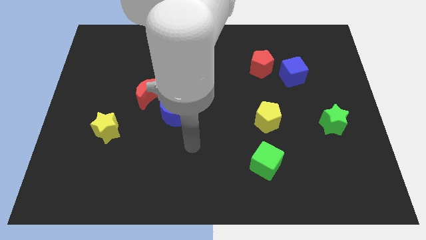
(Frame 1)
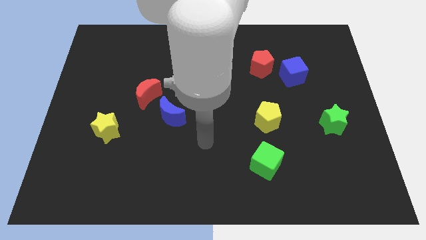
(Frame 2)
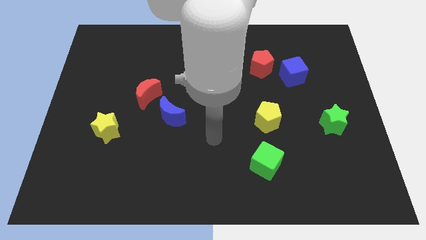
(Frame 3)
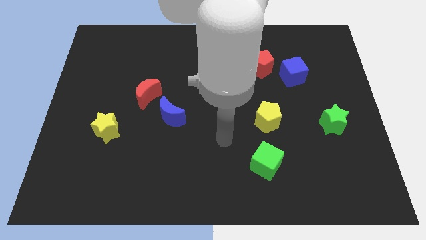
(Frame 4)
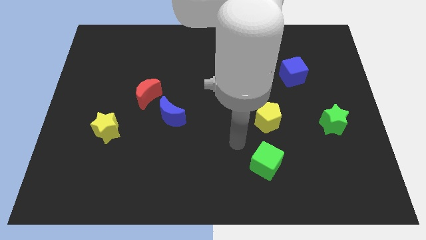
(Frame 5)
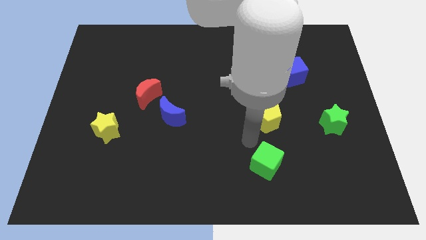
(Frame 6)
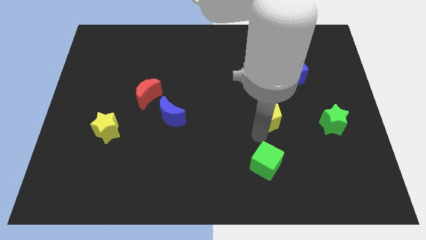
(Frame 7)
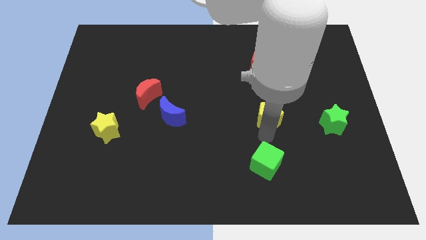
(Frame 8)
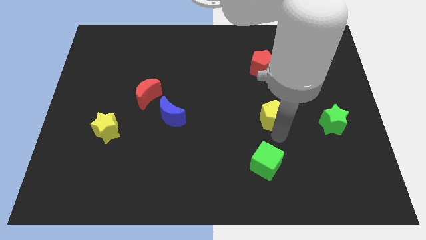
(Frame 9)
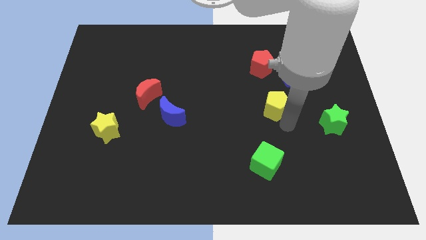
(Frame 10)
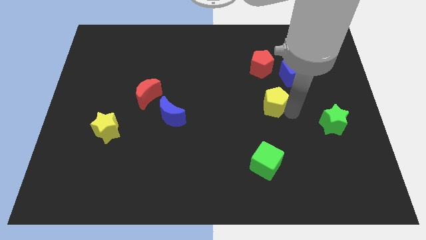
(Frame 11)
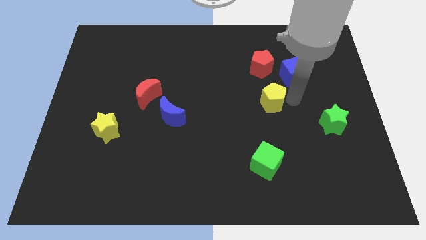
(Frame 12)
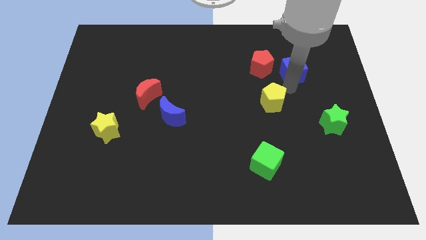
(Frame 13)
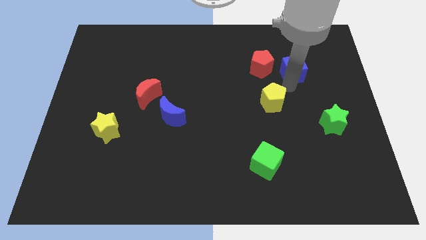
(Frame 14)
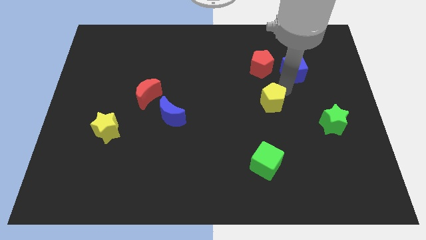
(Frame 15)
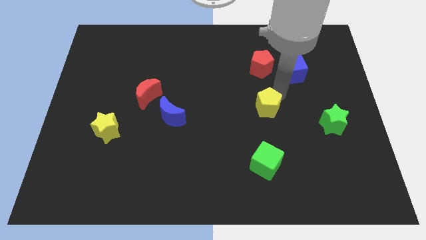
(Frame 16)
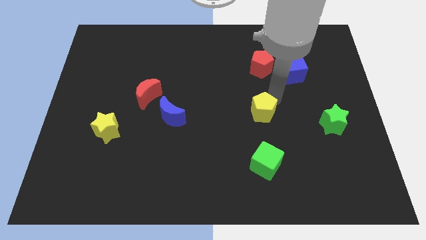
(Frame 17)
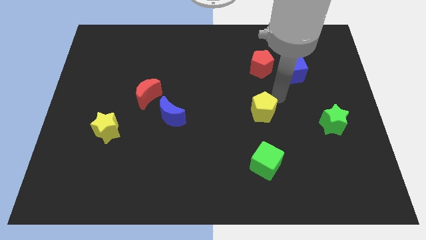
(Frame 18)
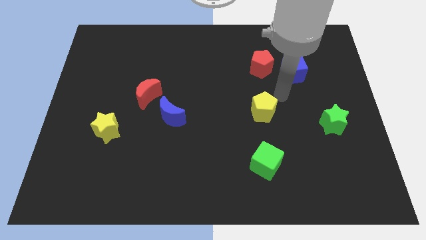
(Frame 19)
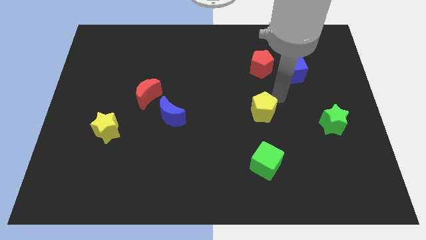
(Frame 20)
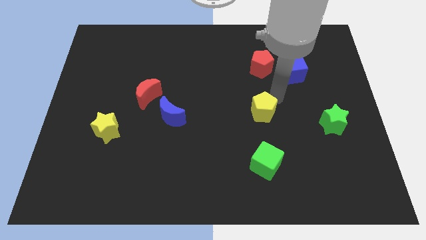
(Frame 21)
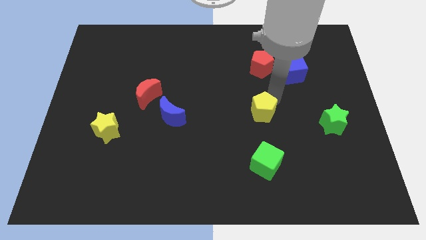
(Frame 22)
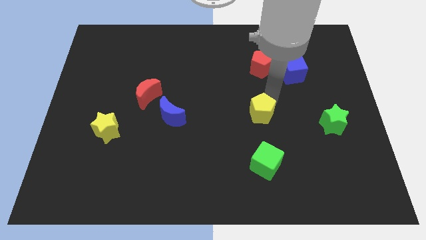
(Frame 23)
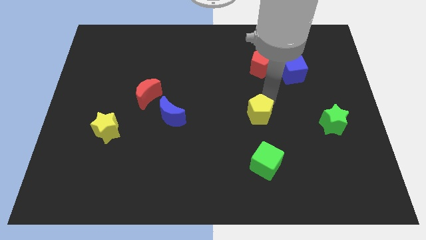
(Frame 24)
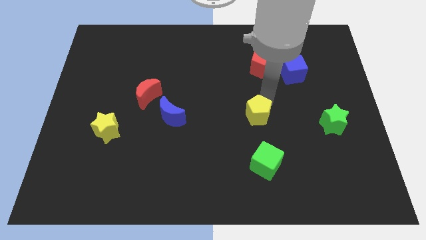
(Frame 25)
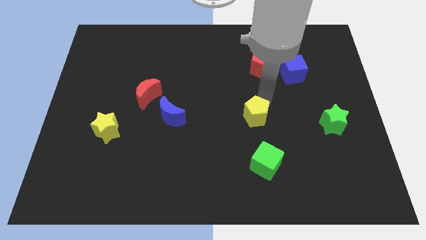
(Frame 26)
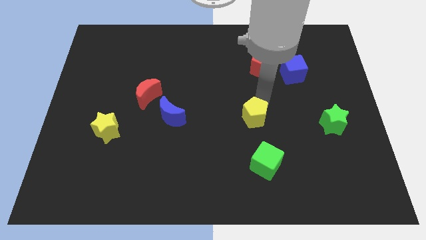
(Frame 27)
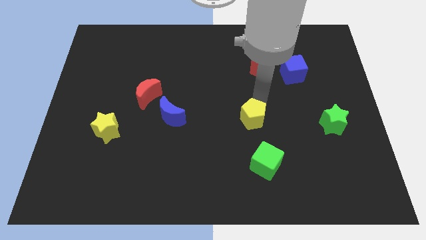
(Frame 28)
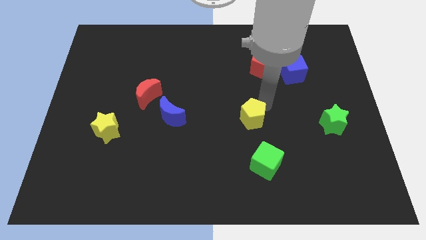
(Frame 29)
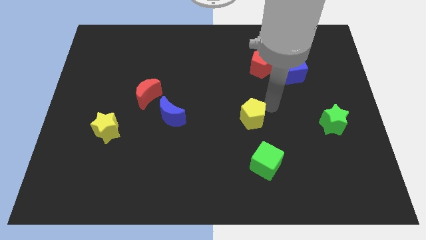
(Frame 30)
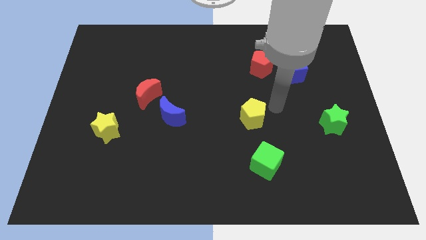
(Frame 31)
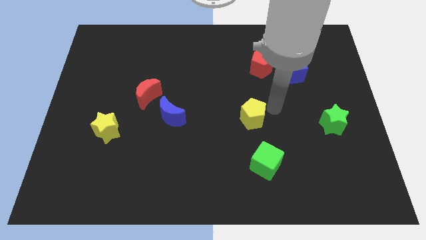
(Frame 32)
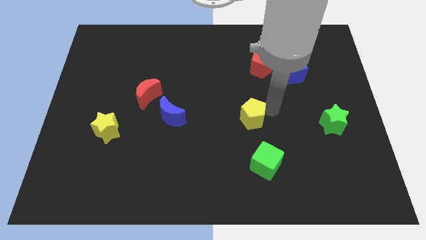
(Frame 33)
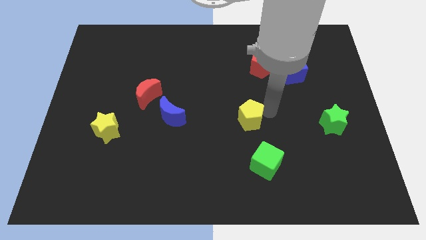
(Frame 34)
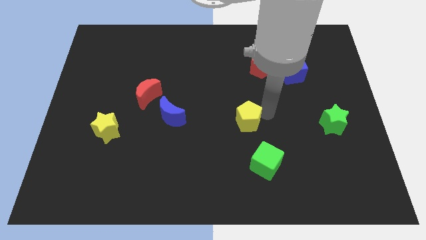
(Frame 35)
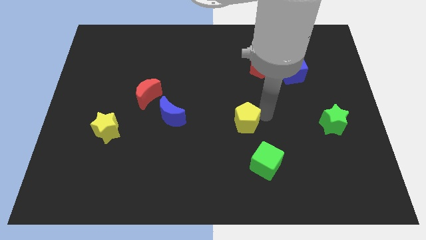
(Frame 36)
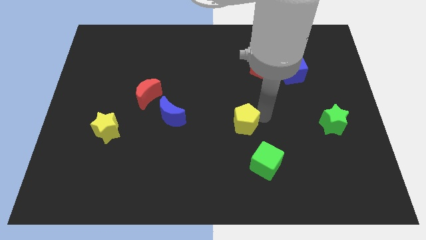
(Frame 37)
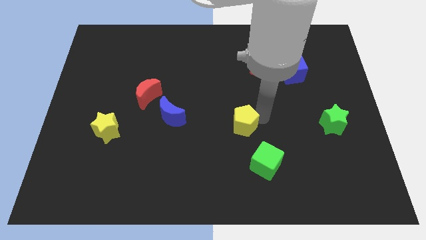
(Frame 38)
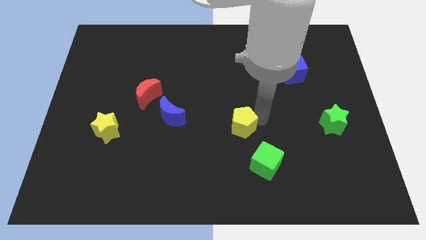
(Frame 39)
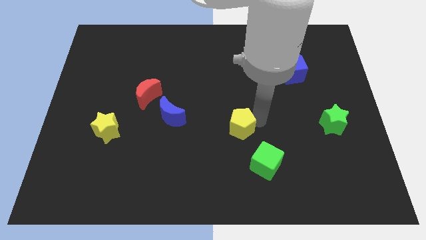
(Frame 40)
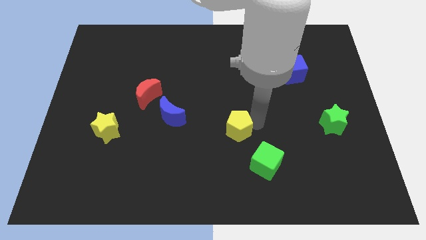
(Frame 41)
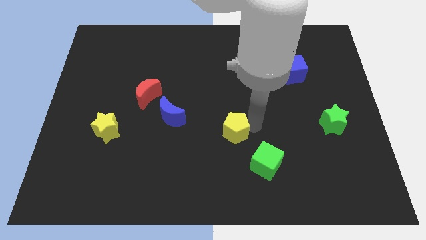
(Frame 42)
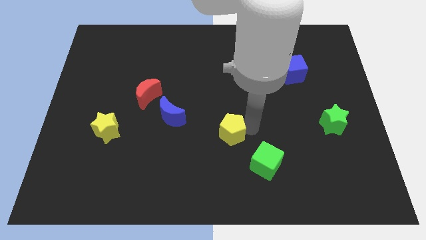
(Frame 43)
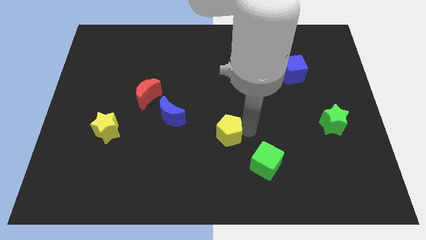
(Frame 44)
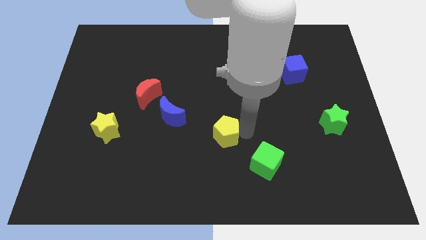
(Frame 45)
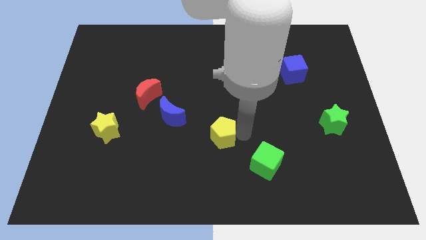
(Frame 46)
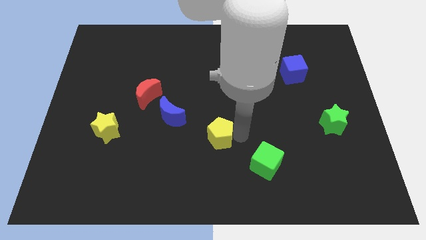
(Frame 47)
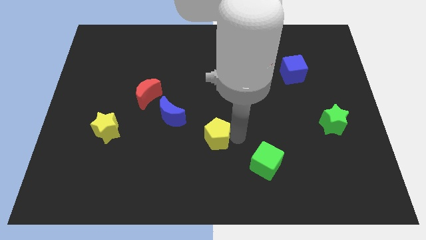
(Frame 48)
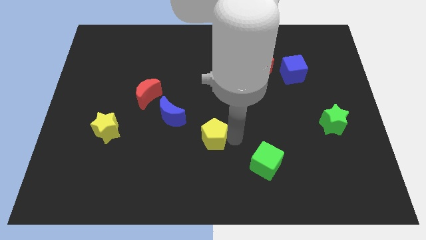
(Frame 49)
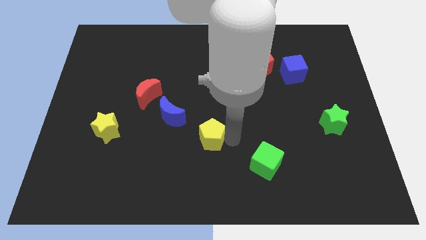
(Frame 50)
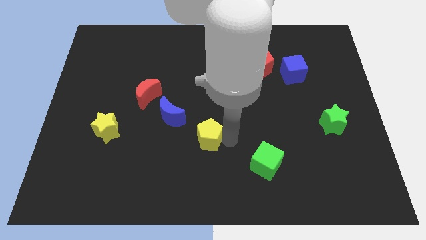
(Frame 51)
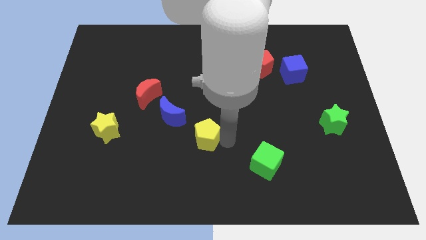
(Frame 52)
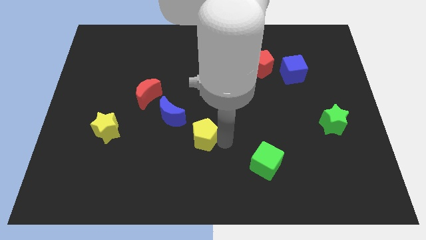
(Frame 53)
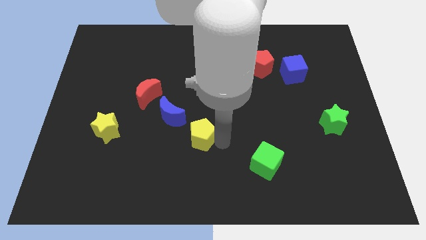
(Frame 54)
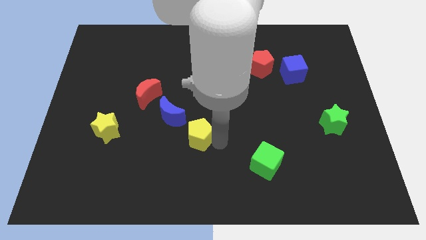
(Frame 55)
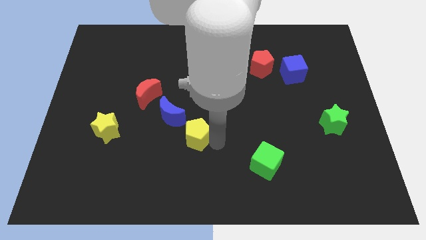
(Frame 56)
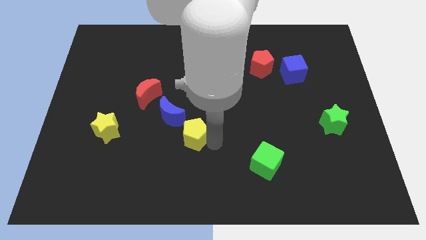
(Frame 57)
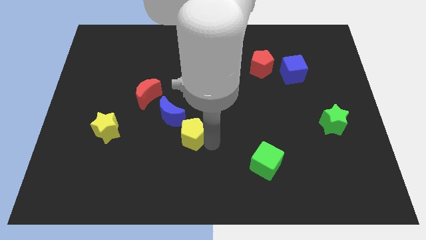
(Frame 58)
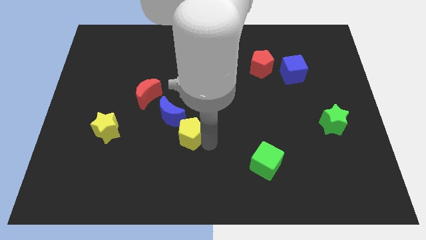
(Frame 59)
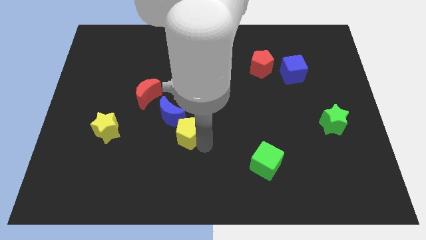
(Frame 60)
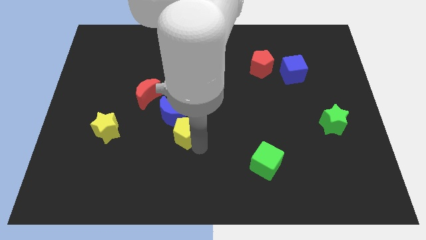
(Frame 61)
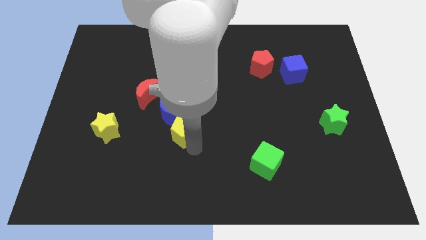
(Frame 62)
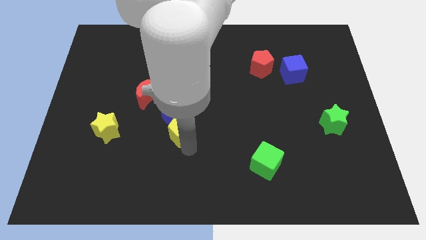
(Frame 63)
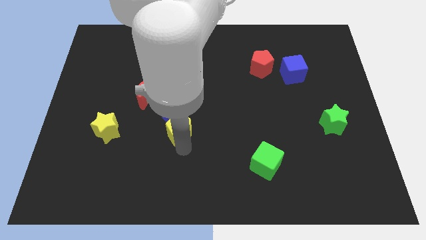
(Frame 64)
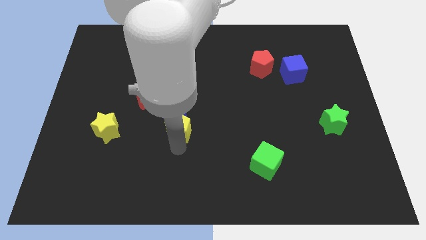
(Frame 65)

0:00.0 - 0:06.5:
move the yellow pentagon to the left

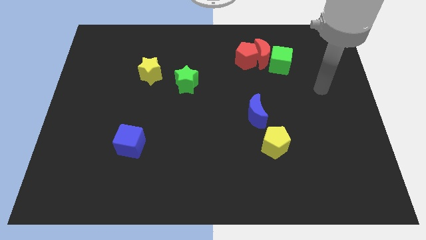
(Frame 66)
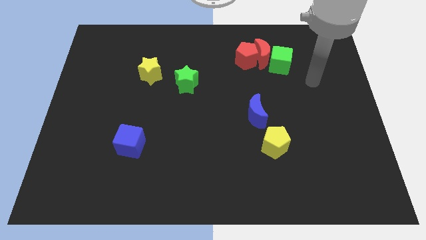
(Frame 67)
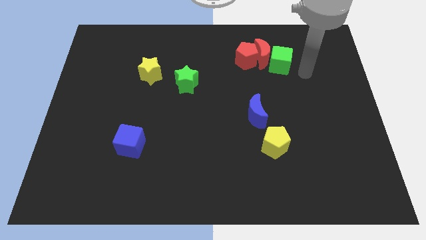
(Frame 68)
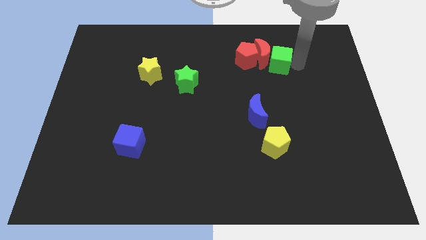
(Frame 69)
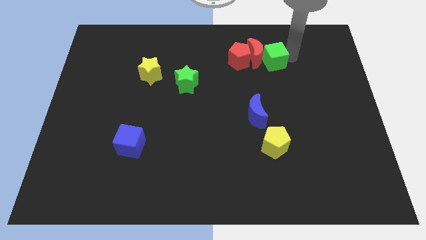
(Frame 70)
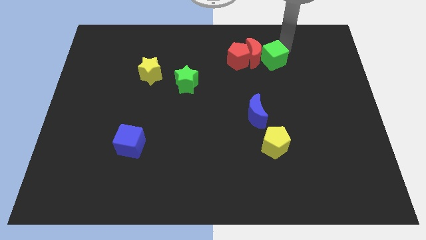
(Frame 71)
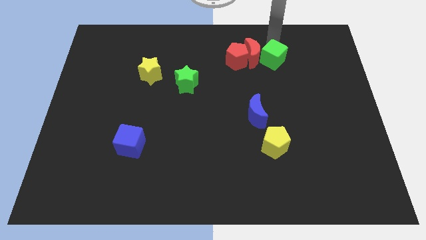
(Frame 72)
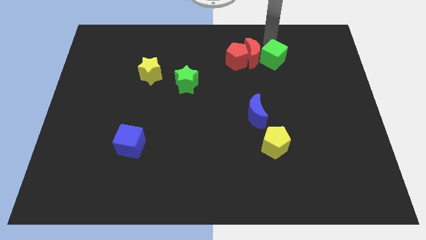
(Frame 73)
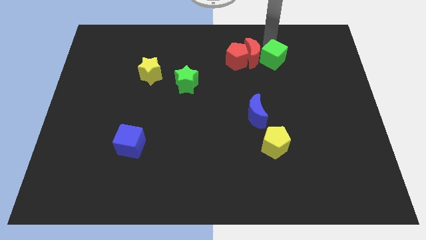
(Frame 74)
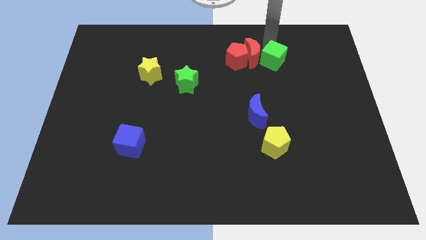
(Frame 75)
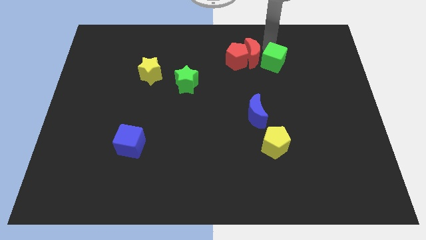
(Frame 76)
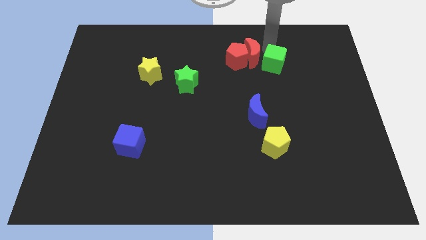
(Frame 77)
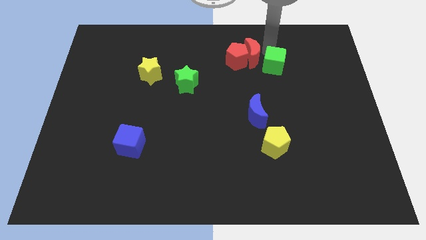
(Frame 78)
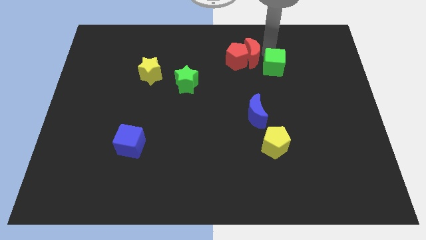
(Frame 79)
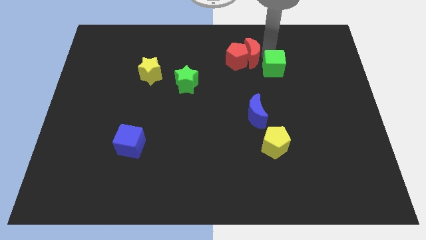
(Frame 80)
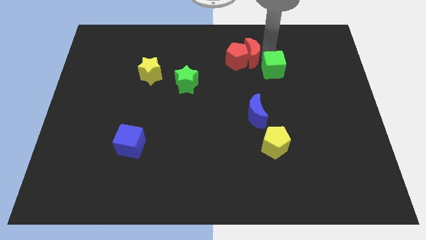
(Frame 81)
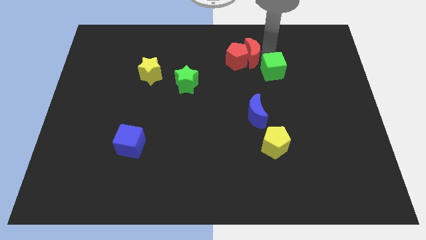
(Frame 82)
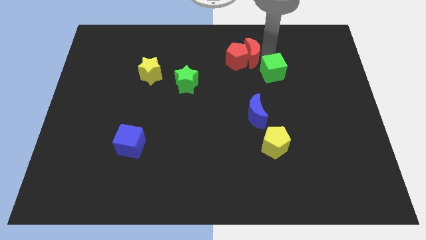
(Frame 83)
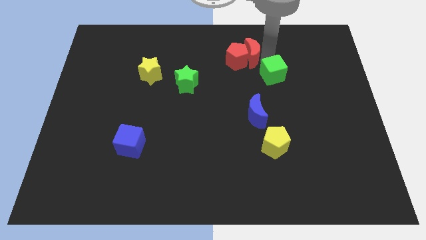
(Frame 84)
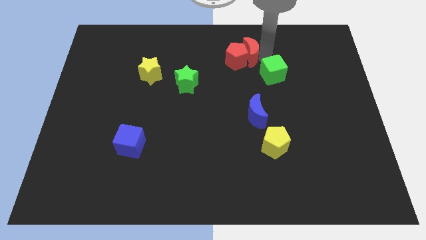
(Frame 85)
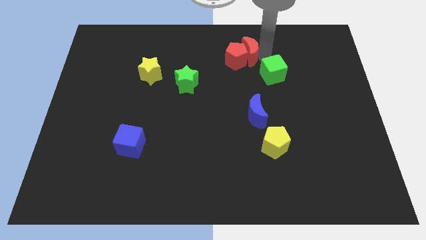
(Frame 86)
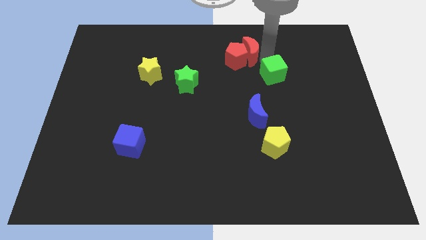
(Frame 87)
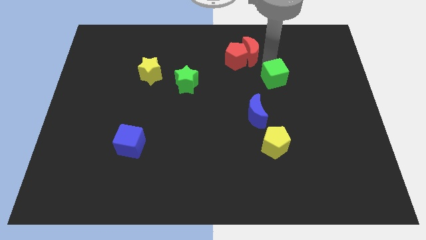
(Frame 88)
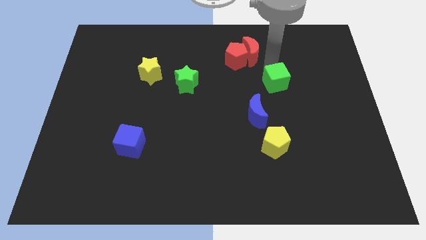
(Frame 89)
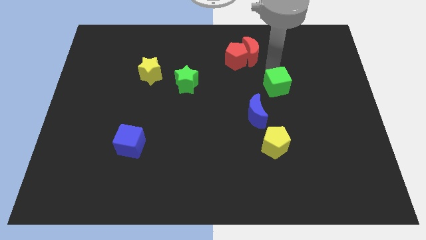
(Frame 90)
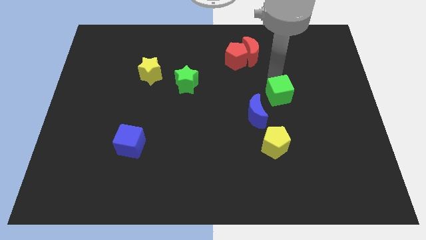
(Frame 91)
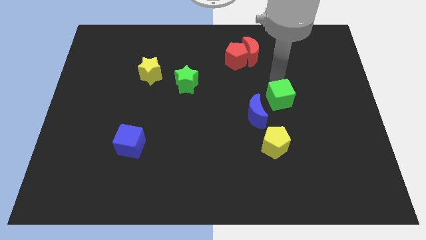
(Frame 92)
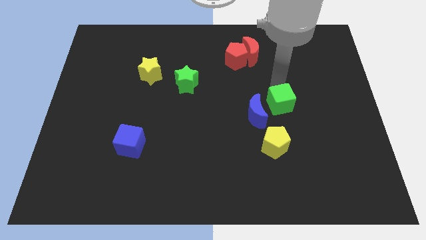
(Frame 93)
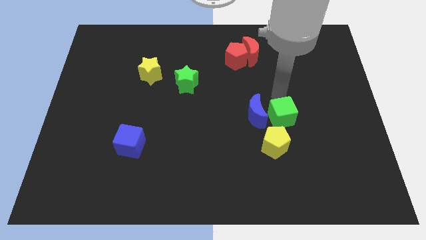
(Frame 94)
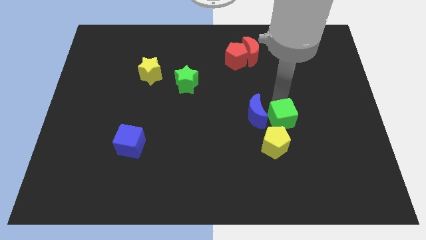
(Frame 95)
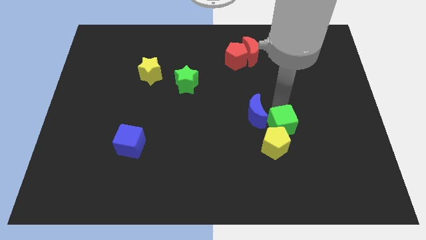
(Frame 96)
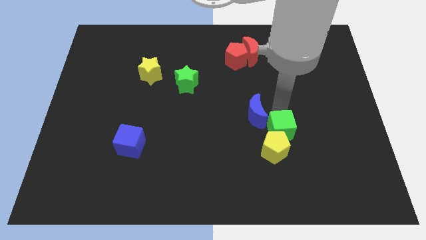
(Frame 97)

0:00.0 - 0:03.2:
move the green cube down
